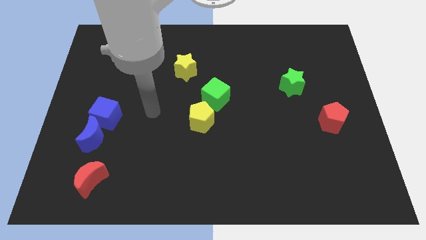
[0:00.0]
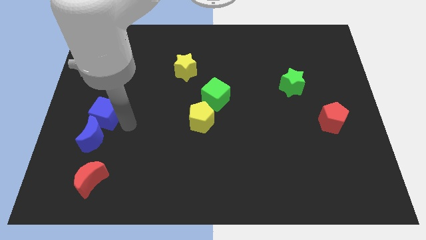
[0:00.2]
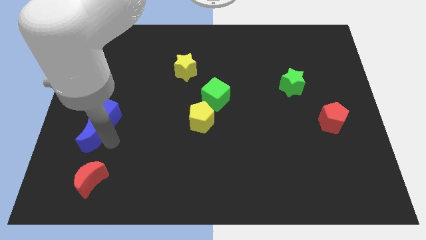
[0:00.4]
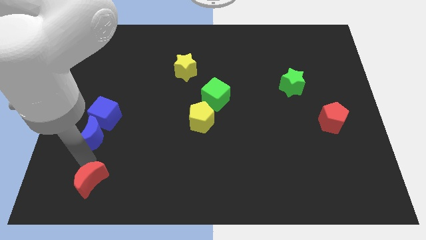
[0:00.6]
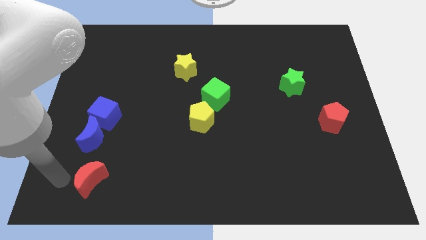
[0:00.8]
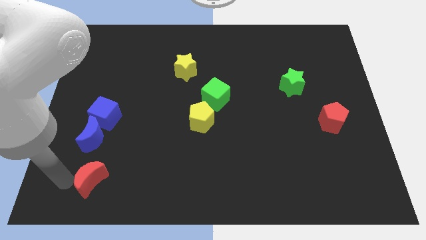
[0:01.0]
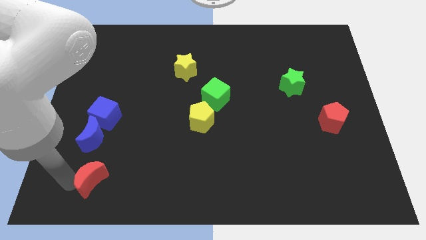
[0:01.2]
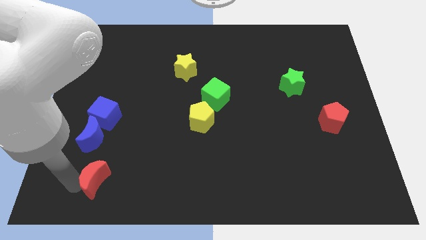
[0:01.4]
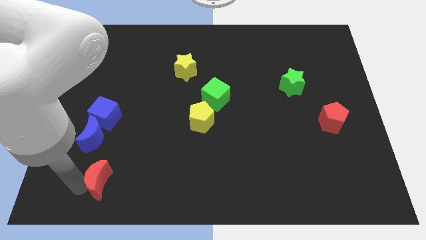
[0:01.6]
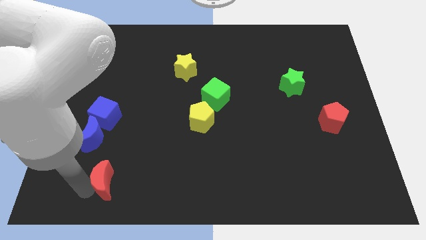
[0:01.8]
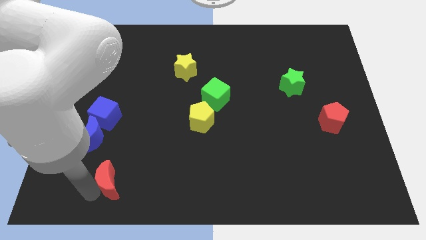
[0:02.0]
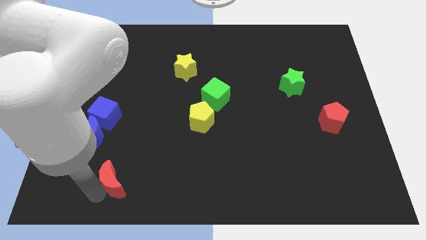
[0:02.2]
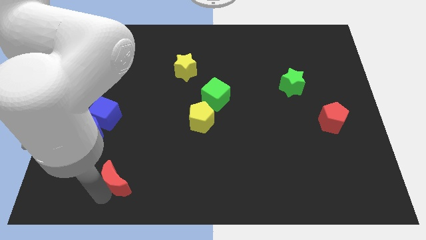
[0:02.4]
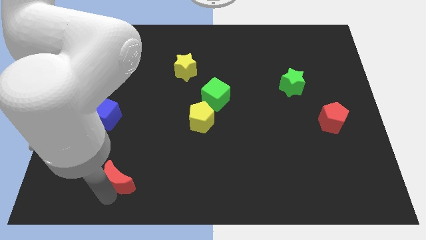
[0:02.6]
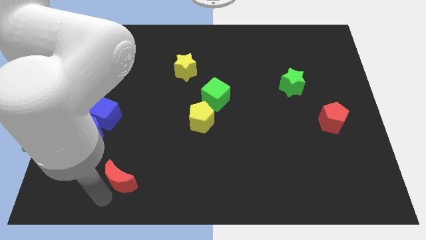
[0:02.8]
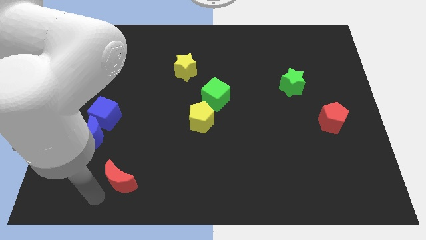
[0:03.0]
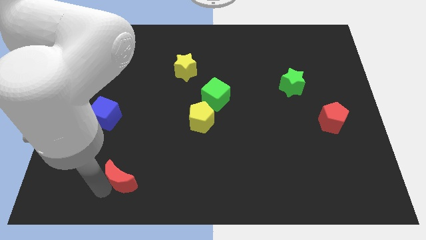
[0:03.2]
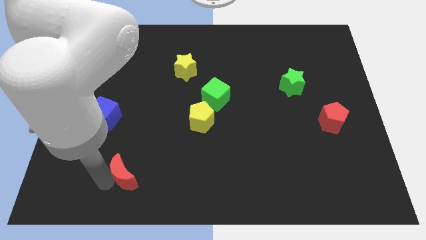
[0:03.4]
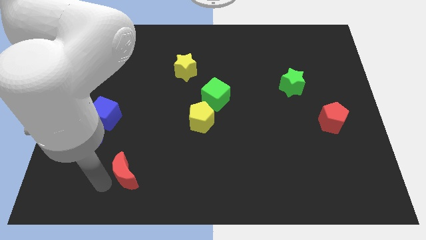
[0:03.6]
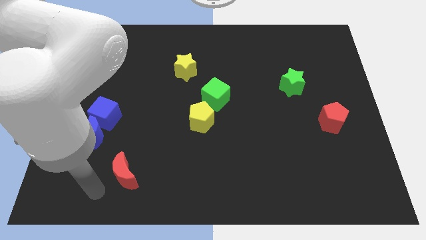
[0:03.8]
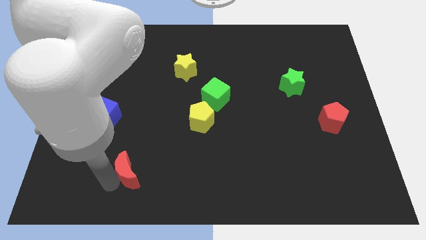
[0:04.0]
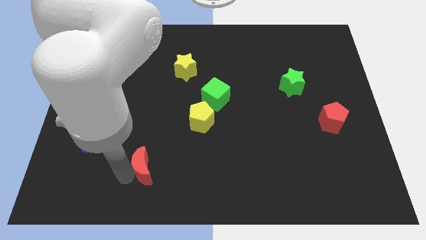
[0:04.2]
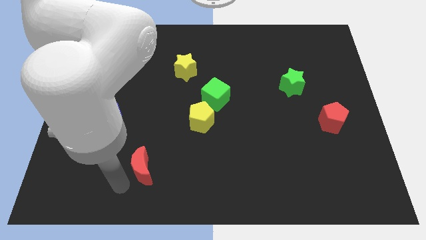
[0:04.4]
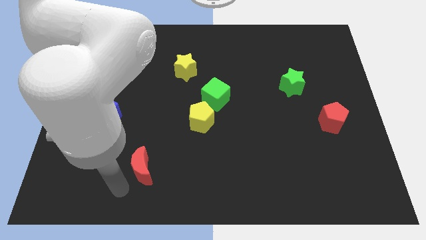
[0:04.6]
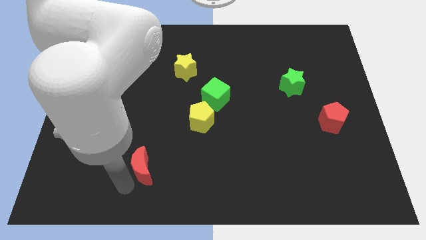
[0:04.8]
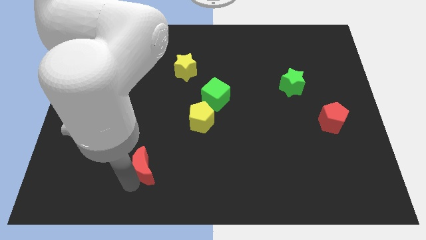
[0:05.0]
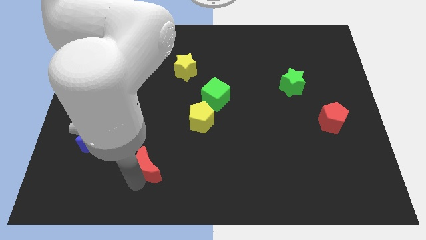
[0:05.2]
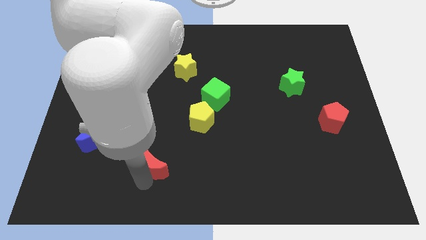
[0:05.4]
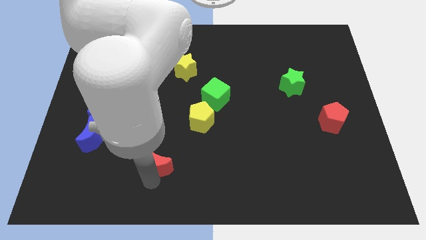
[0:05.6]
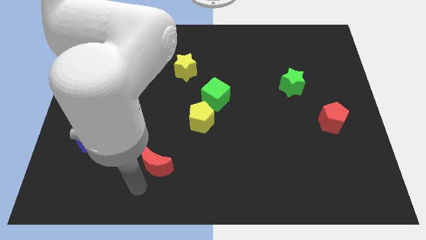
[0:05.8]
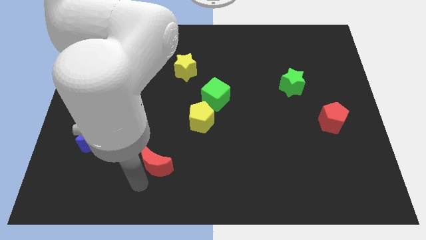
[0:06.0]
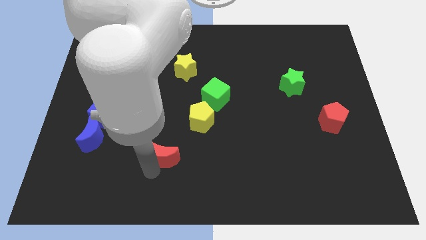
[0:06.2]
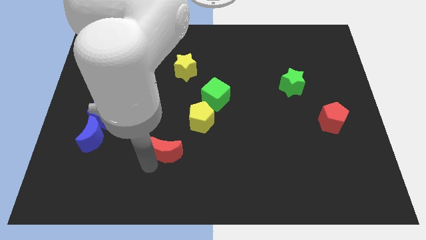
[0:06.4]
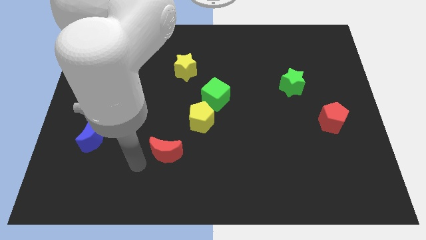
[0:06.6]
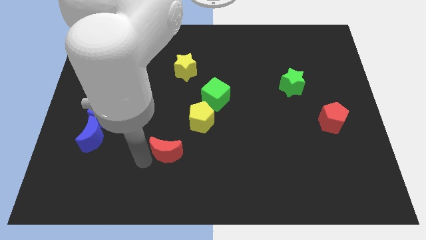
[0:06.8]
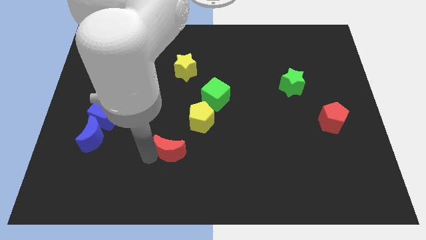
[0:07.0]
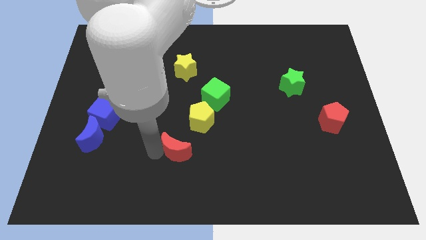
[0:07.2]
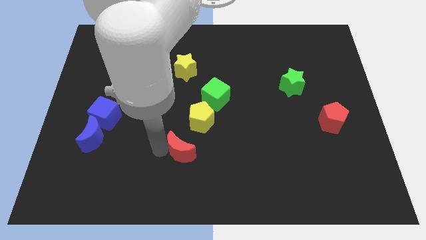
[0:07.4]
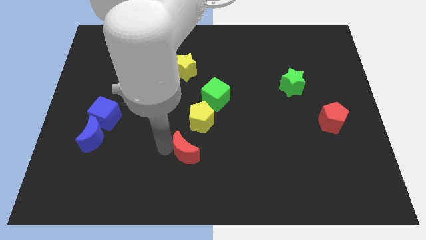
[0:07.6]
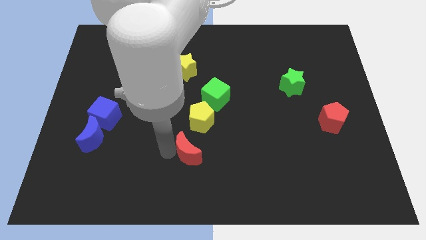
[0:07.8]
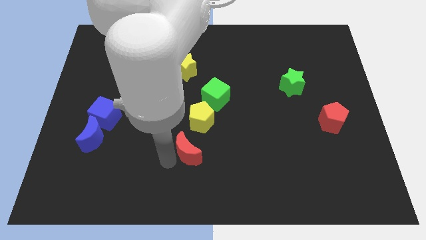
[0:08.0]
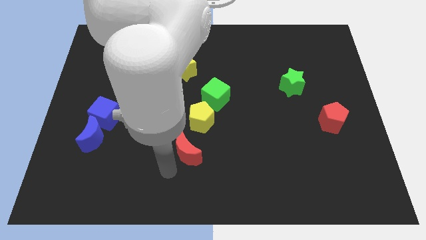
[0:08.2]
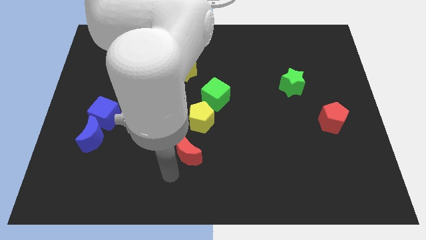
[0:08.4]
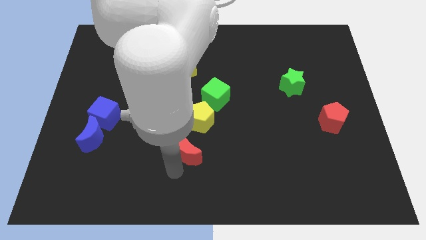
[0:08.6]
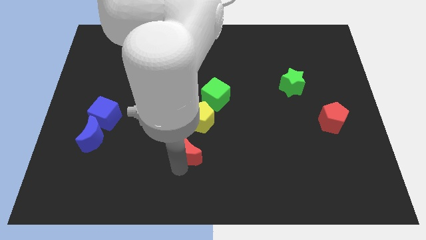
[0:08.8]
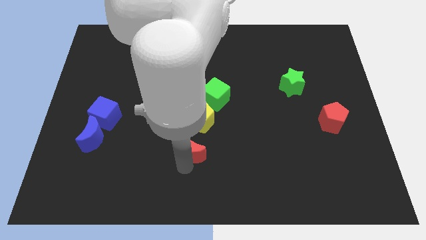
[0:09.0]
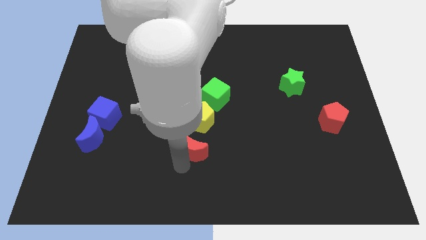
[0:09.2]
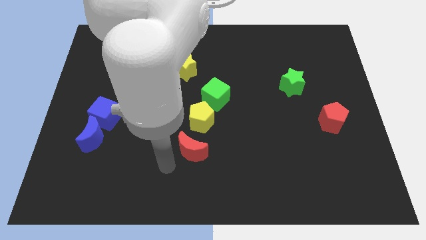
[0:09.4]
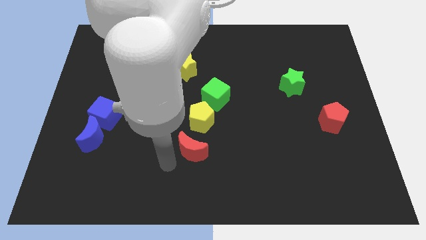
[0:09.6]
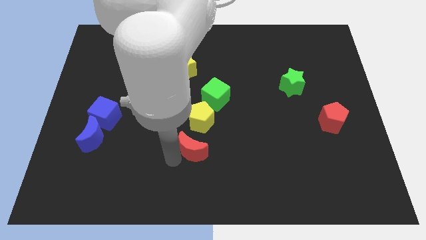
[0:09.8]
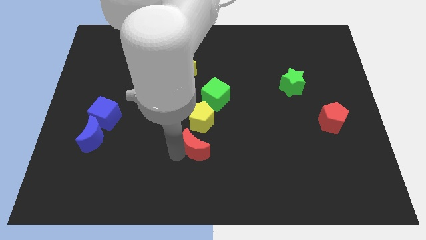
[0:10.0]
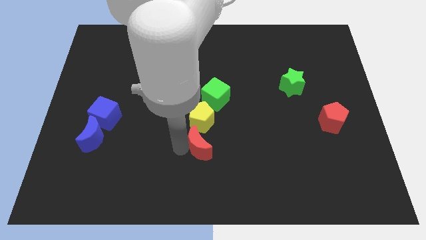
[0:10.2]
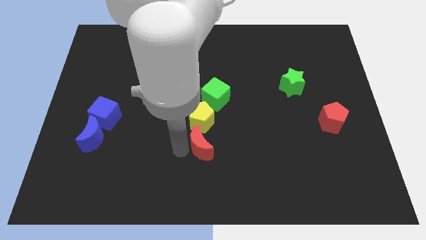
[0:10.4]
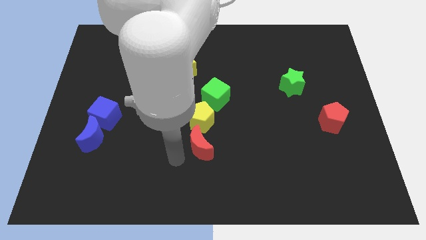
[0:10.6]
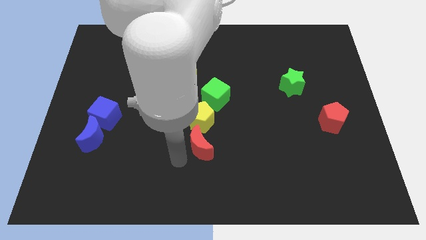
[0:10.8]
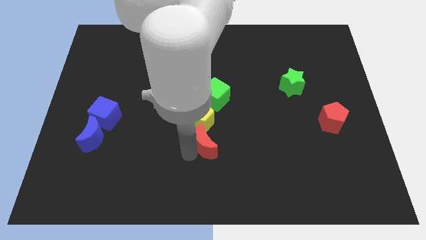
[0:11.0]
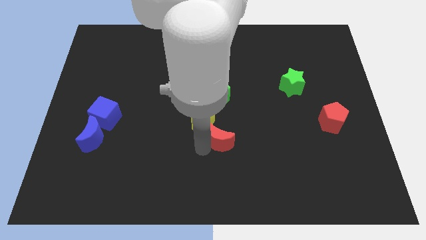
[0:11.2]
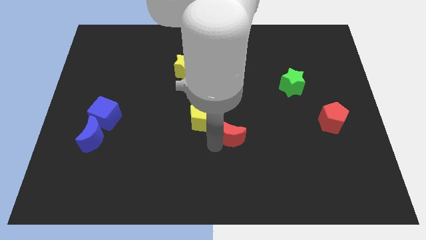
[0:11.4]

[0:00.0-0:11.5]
slide the red moon right of the yellow pentagon

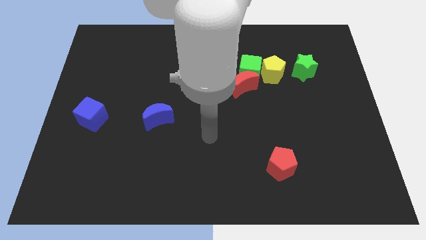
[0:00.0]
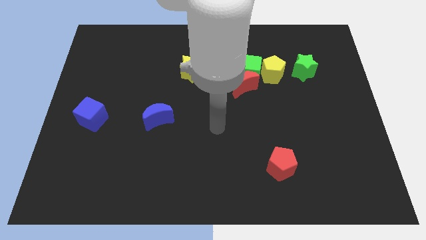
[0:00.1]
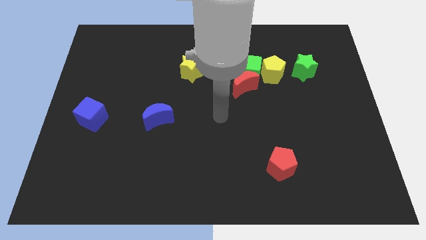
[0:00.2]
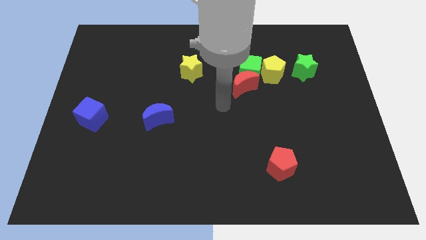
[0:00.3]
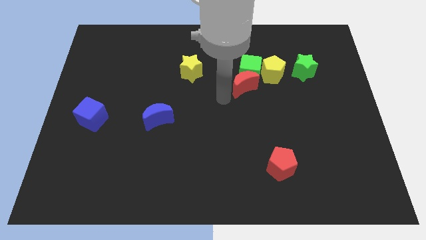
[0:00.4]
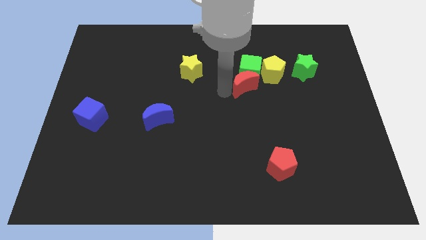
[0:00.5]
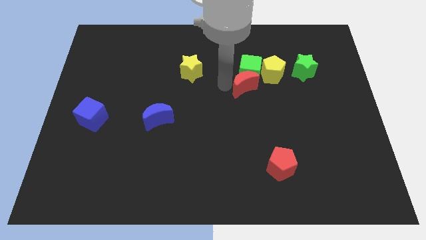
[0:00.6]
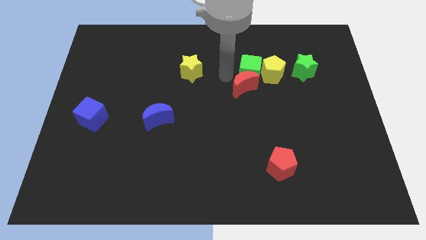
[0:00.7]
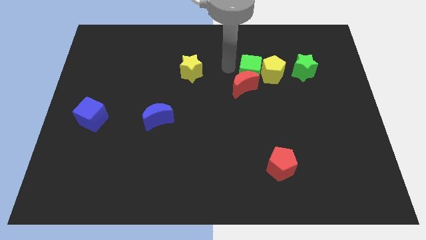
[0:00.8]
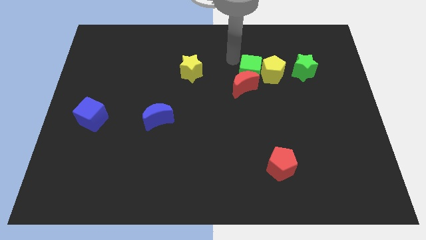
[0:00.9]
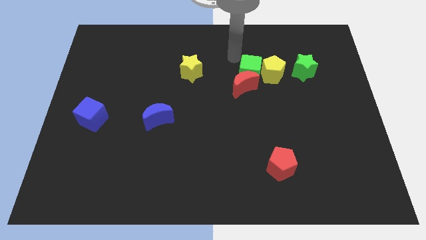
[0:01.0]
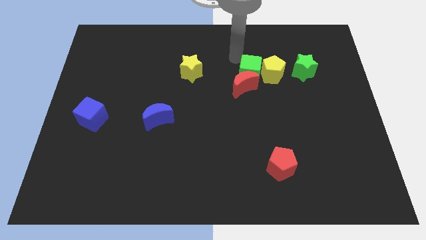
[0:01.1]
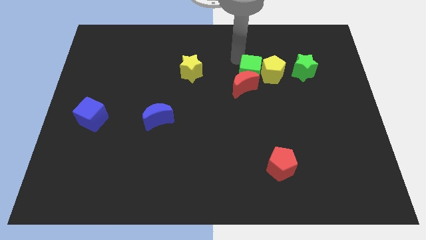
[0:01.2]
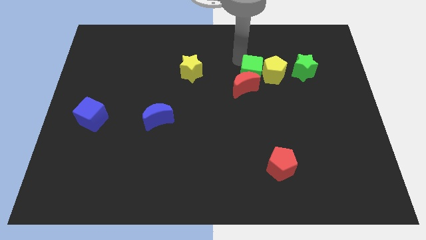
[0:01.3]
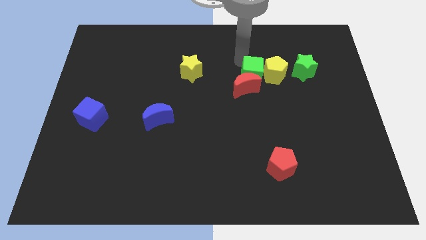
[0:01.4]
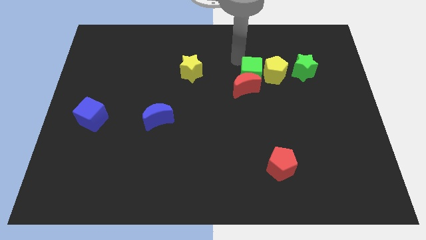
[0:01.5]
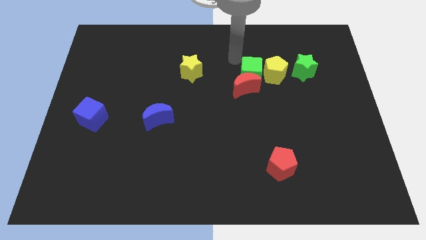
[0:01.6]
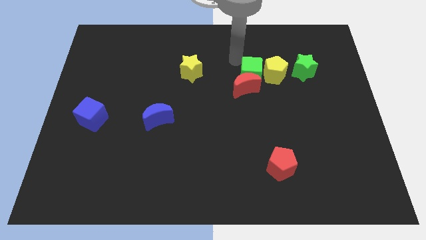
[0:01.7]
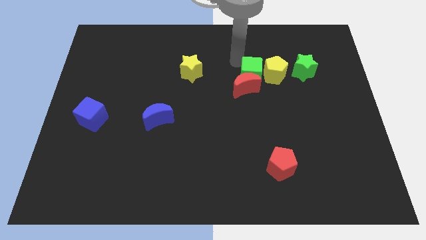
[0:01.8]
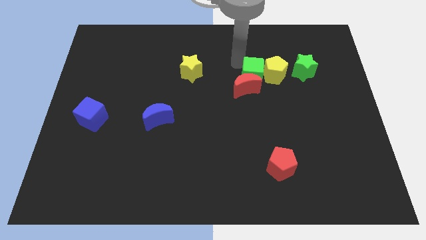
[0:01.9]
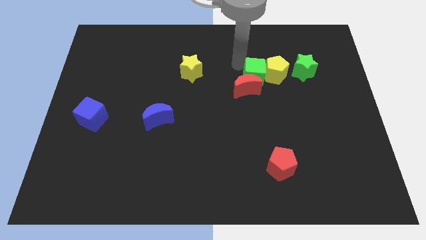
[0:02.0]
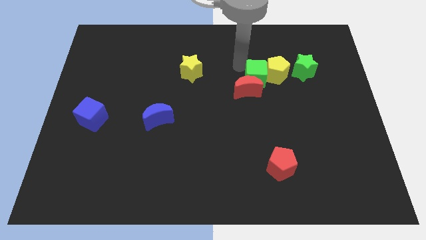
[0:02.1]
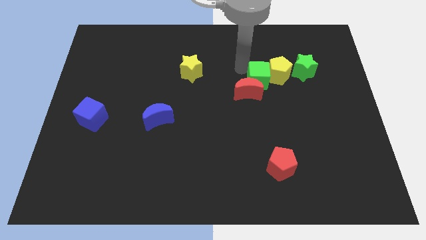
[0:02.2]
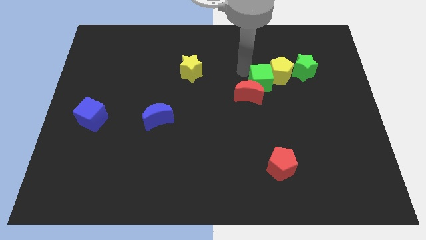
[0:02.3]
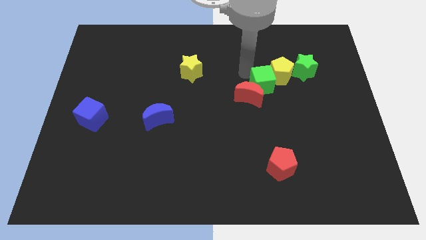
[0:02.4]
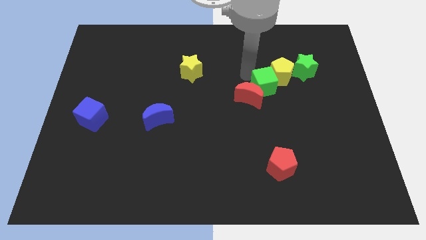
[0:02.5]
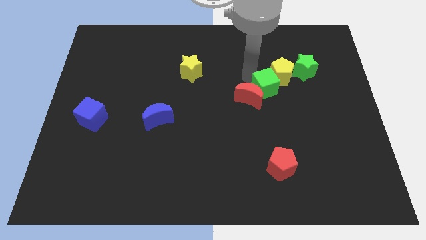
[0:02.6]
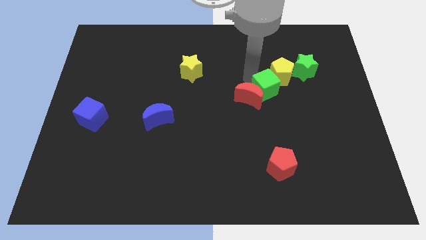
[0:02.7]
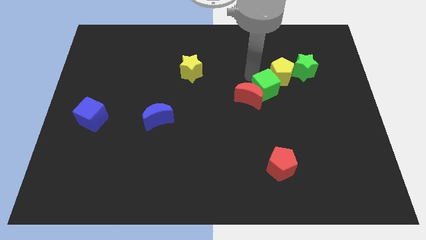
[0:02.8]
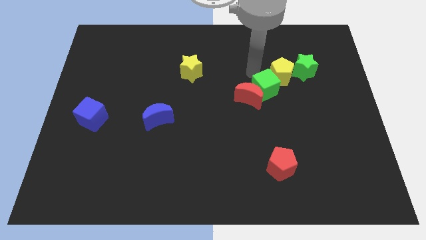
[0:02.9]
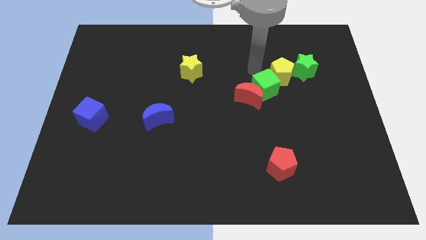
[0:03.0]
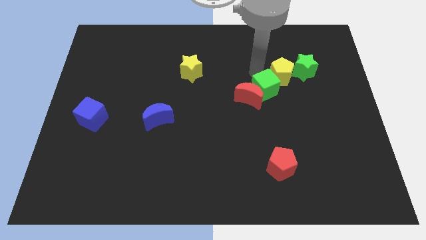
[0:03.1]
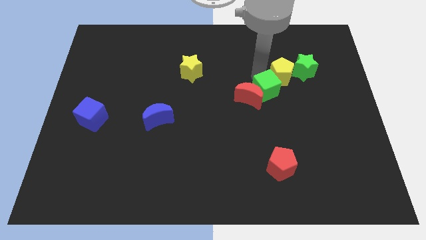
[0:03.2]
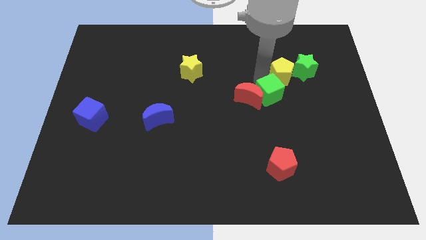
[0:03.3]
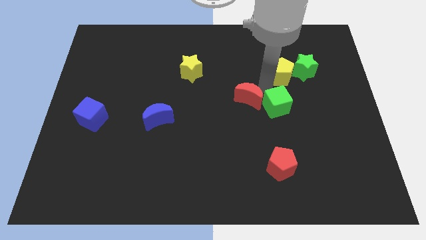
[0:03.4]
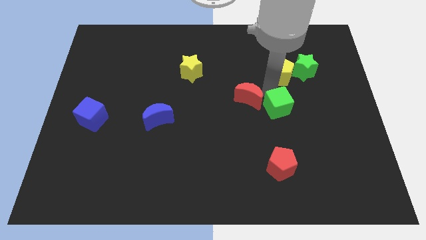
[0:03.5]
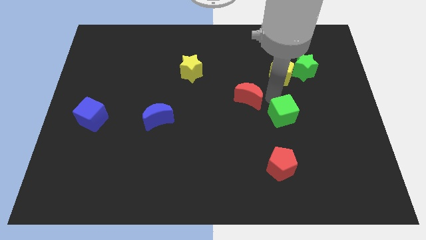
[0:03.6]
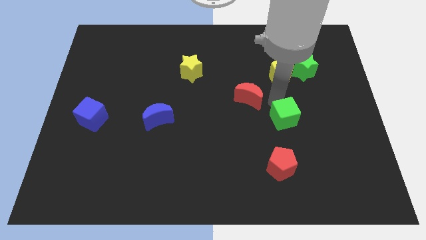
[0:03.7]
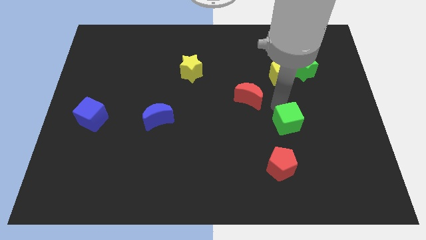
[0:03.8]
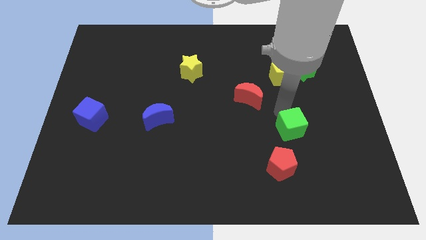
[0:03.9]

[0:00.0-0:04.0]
slide the green cube to the top right side of the red pentagon
